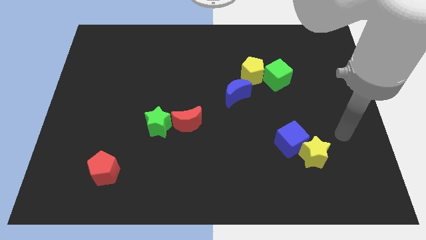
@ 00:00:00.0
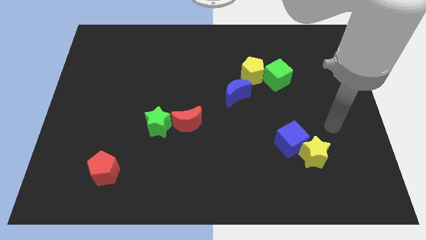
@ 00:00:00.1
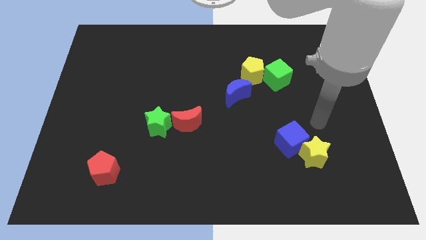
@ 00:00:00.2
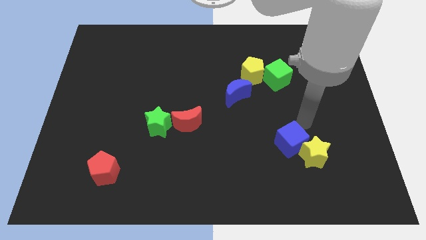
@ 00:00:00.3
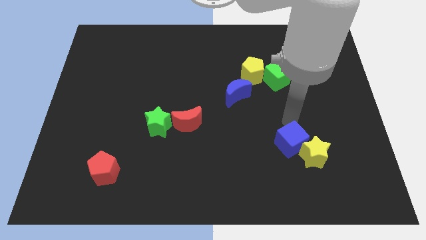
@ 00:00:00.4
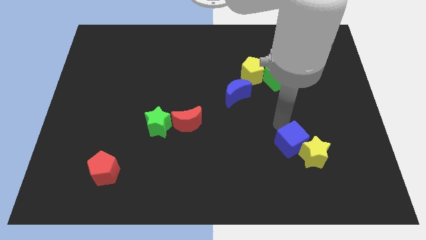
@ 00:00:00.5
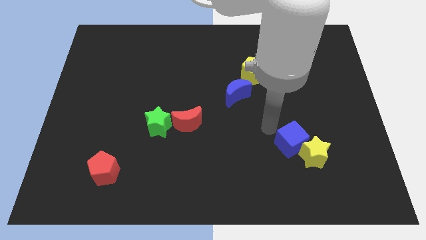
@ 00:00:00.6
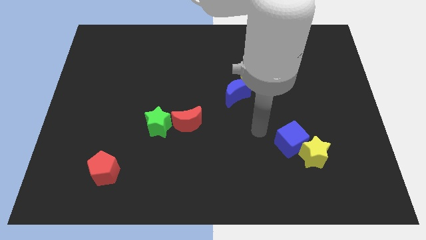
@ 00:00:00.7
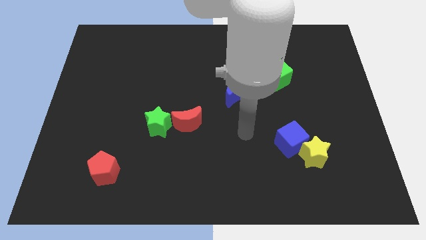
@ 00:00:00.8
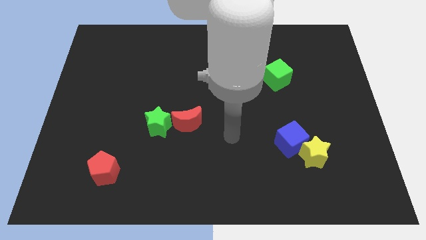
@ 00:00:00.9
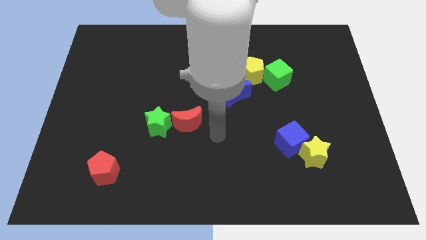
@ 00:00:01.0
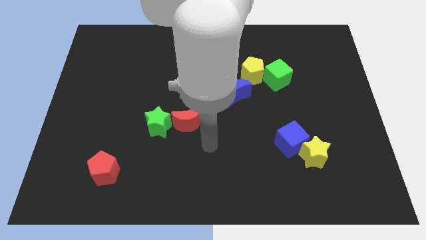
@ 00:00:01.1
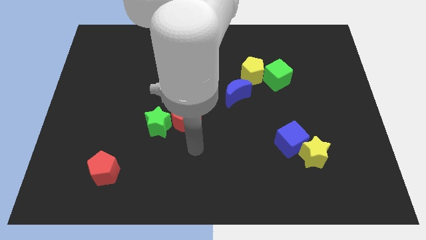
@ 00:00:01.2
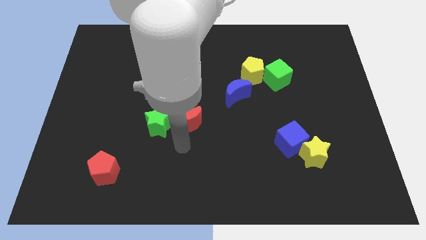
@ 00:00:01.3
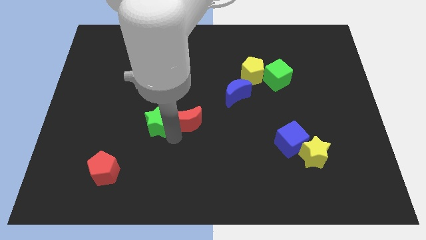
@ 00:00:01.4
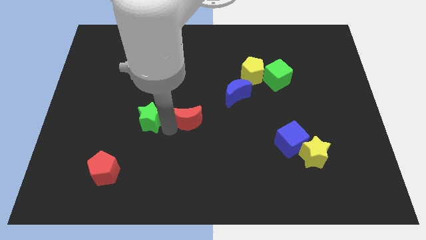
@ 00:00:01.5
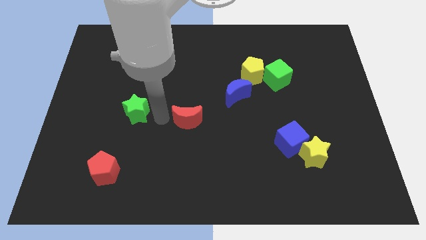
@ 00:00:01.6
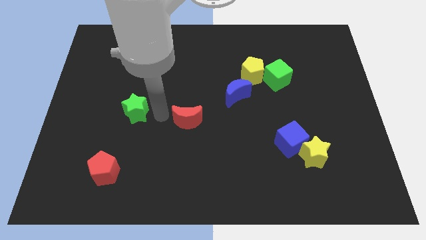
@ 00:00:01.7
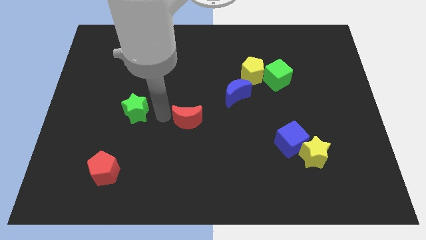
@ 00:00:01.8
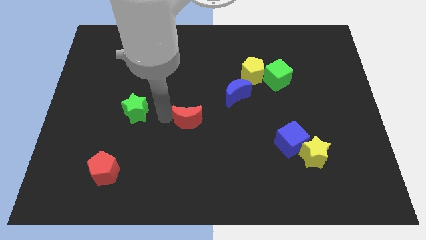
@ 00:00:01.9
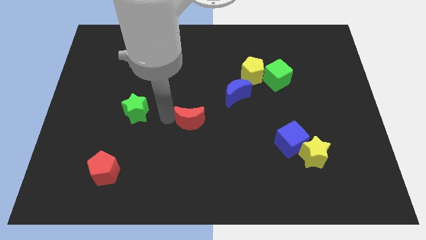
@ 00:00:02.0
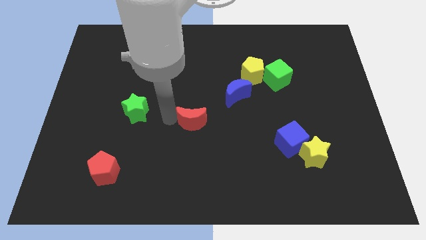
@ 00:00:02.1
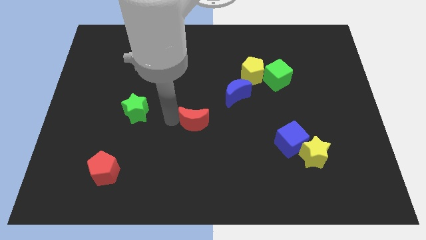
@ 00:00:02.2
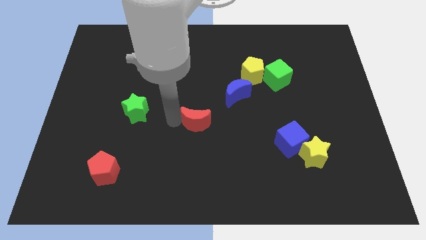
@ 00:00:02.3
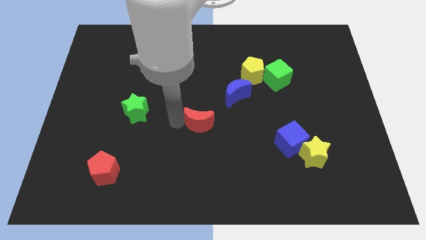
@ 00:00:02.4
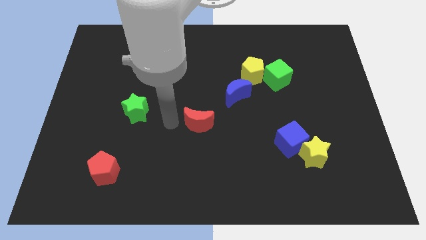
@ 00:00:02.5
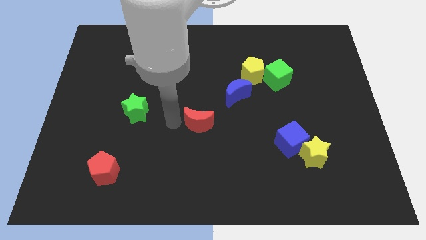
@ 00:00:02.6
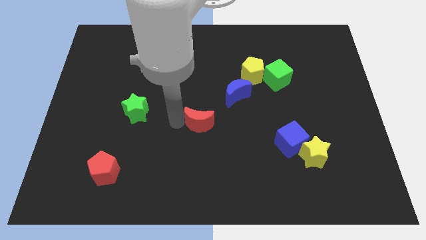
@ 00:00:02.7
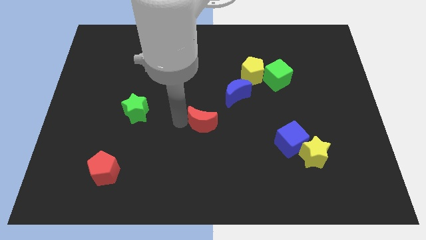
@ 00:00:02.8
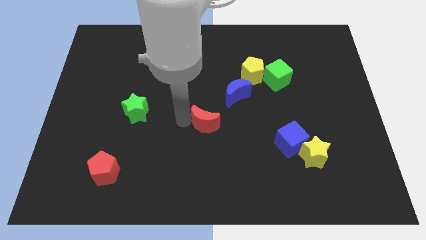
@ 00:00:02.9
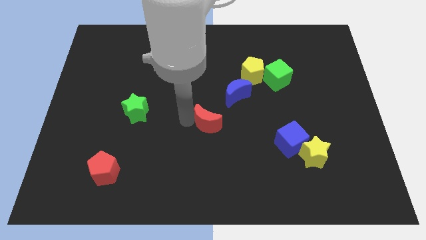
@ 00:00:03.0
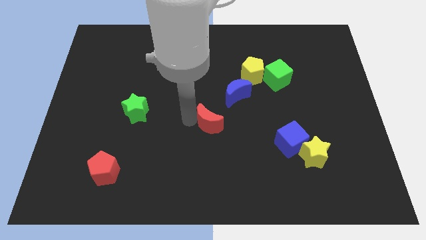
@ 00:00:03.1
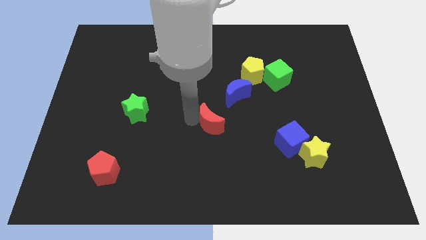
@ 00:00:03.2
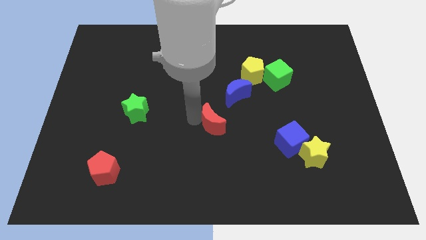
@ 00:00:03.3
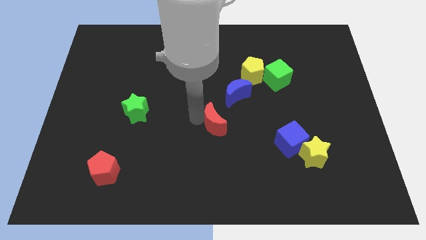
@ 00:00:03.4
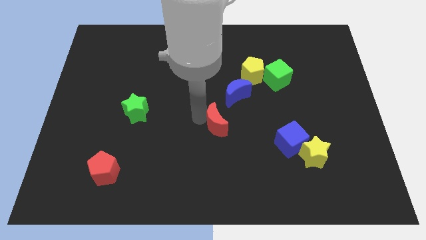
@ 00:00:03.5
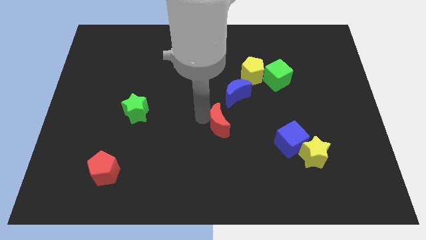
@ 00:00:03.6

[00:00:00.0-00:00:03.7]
slightly push the red moon right

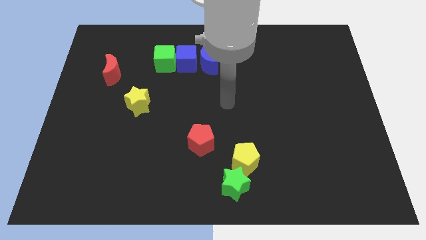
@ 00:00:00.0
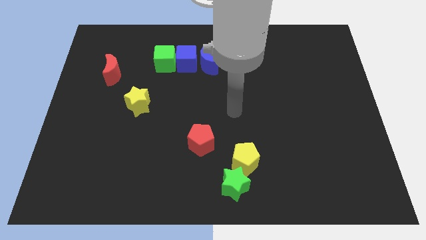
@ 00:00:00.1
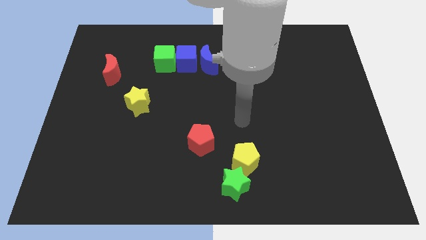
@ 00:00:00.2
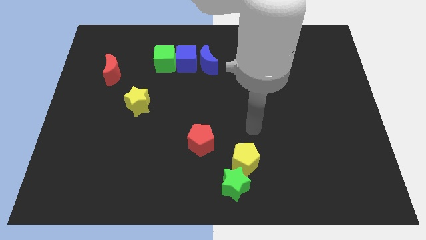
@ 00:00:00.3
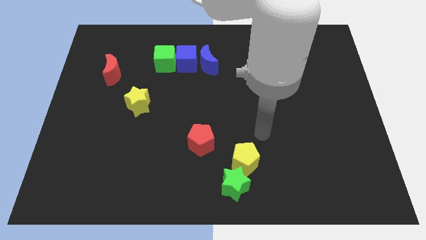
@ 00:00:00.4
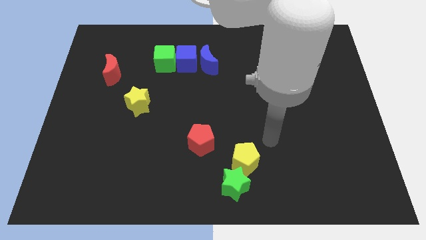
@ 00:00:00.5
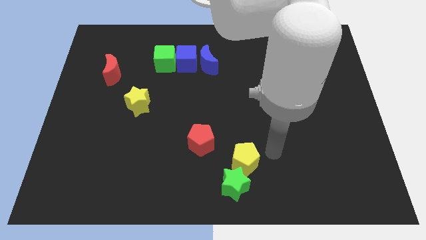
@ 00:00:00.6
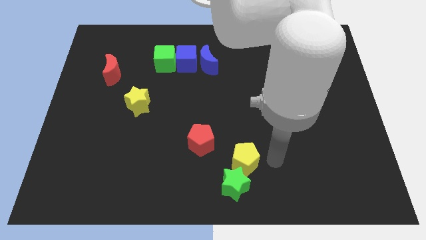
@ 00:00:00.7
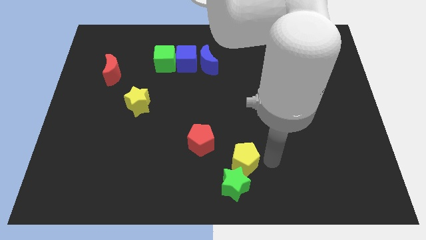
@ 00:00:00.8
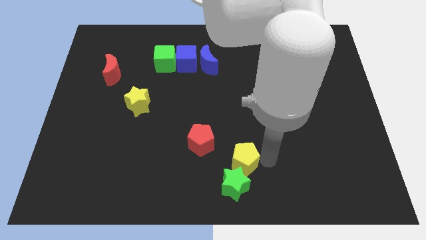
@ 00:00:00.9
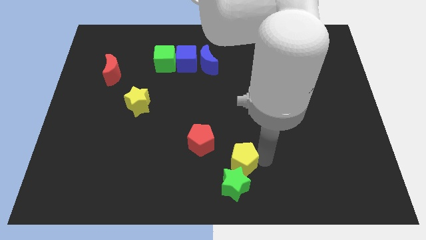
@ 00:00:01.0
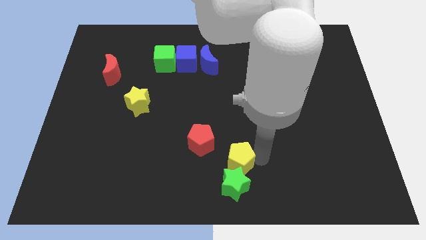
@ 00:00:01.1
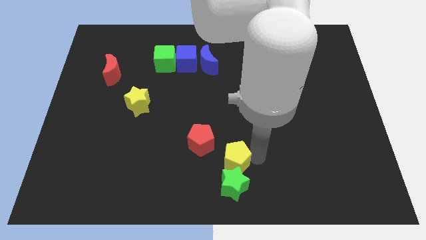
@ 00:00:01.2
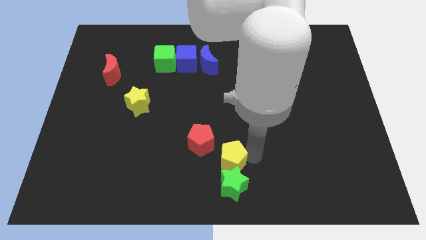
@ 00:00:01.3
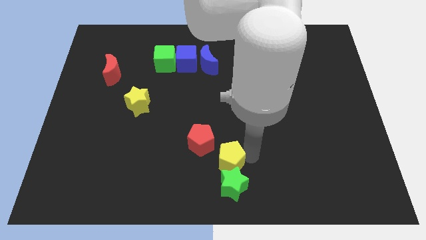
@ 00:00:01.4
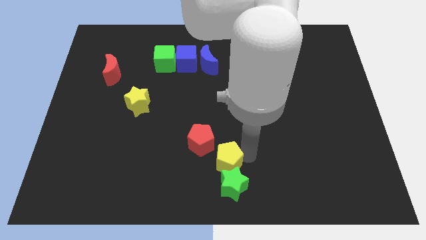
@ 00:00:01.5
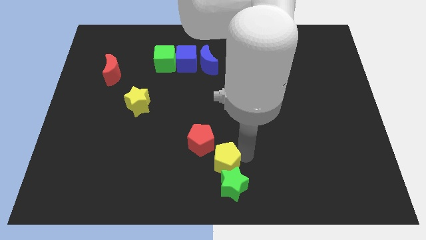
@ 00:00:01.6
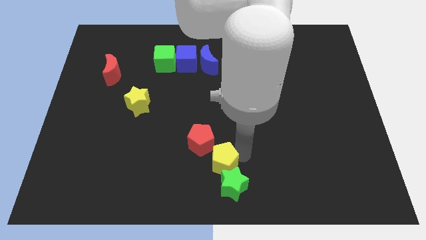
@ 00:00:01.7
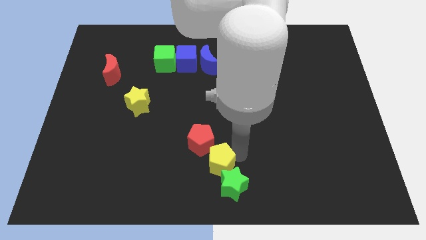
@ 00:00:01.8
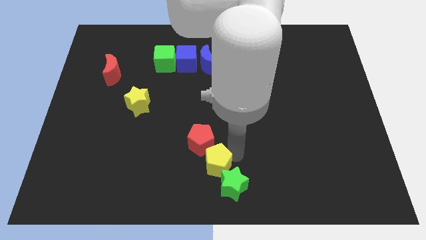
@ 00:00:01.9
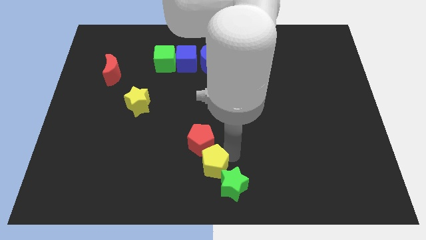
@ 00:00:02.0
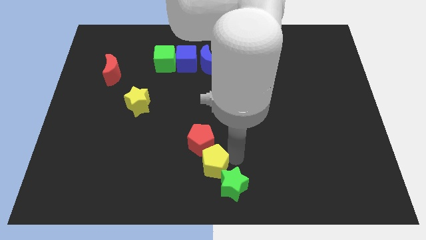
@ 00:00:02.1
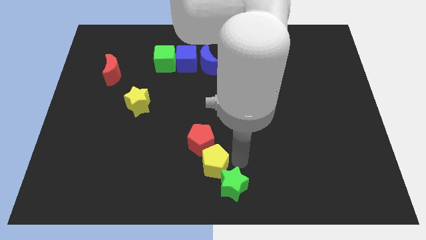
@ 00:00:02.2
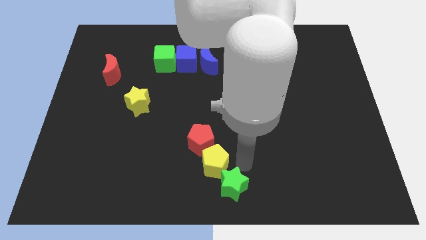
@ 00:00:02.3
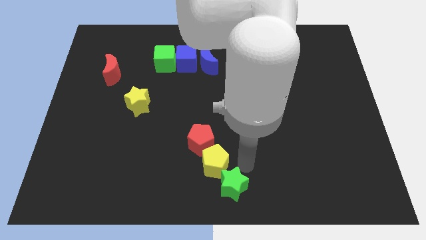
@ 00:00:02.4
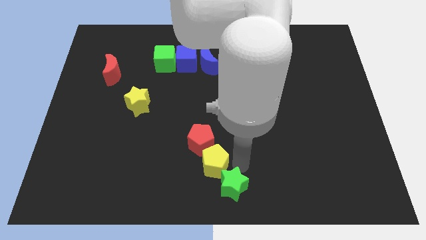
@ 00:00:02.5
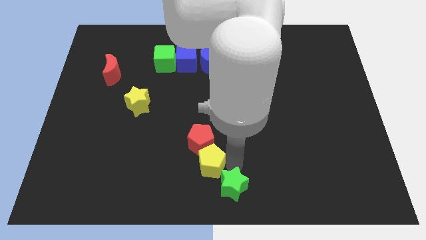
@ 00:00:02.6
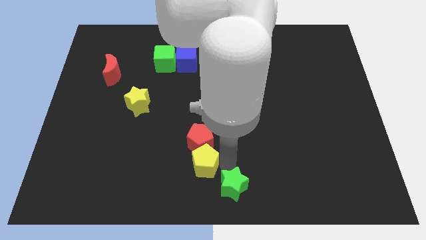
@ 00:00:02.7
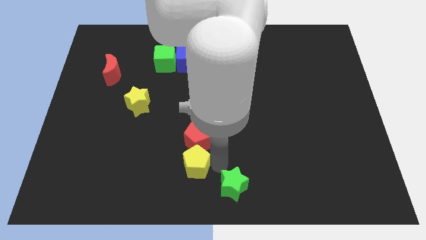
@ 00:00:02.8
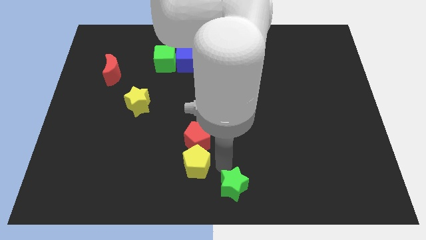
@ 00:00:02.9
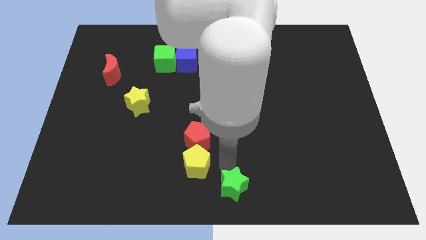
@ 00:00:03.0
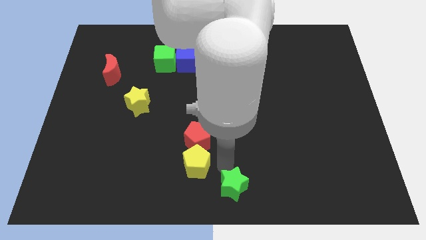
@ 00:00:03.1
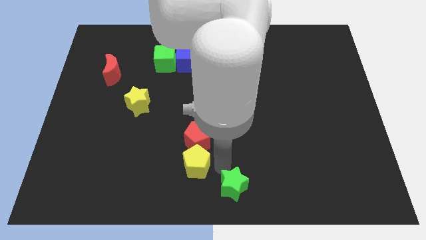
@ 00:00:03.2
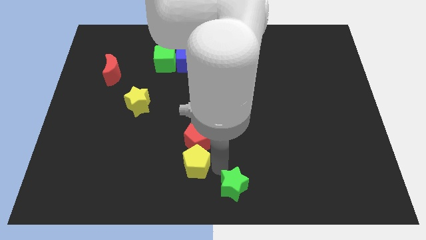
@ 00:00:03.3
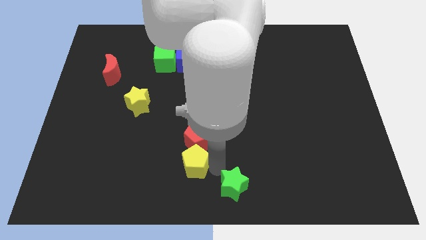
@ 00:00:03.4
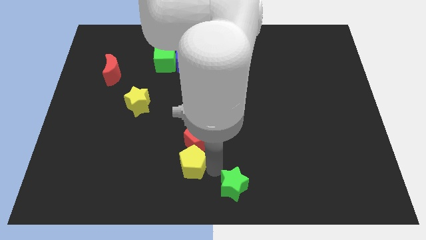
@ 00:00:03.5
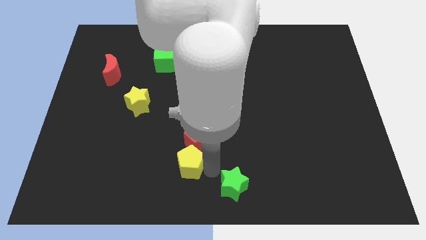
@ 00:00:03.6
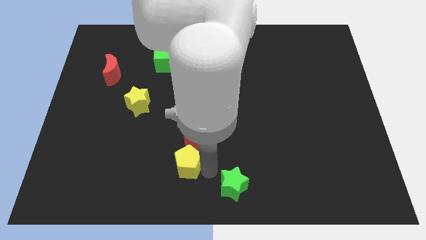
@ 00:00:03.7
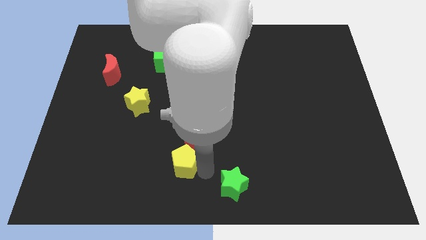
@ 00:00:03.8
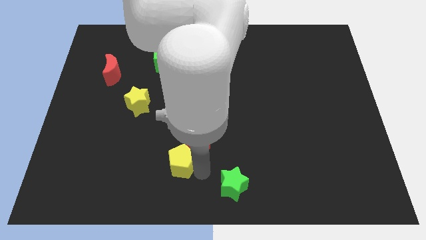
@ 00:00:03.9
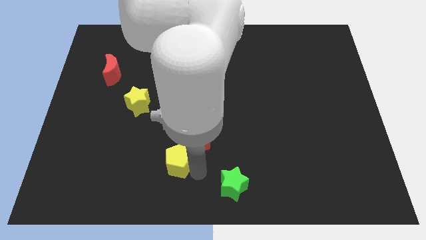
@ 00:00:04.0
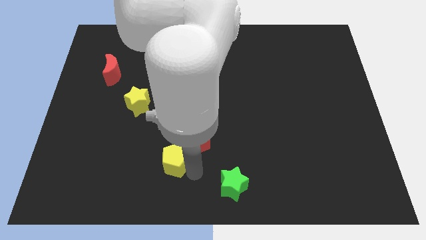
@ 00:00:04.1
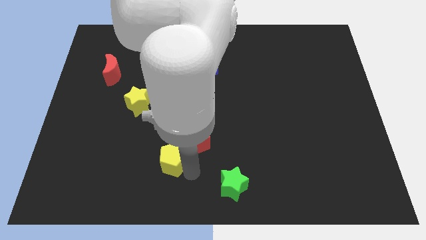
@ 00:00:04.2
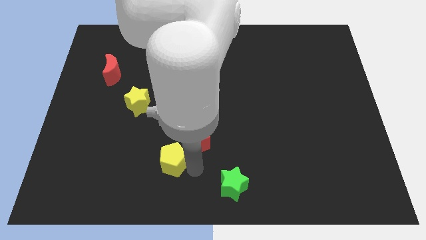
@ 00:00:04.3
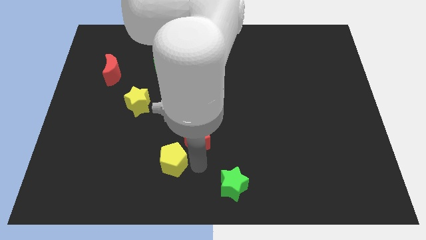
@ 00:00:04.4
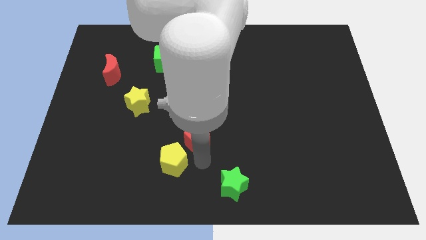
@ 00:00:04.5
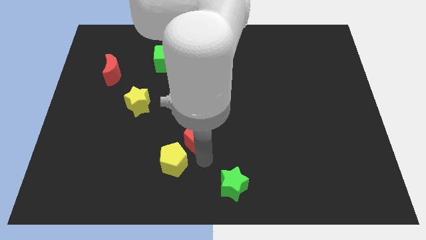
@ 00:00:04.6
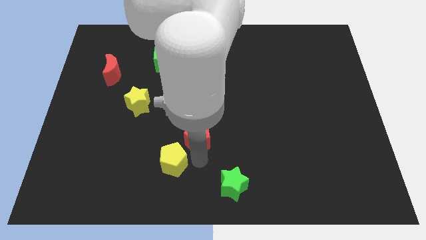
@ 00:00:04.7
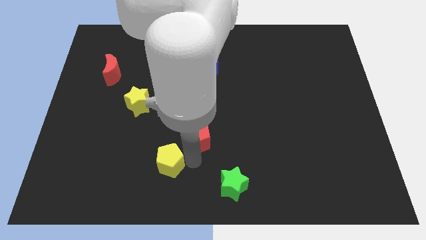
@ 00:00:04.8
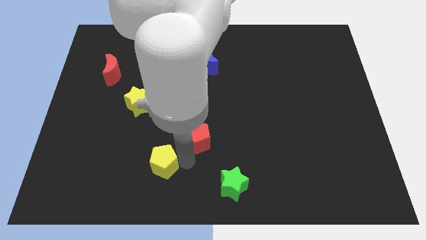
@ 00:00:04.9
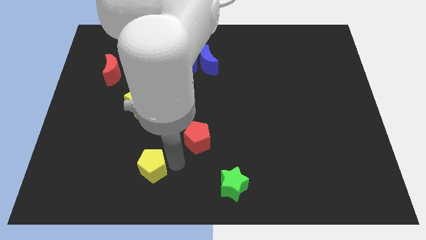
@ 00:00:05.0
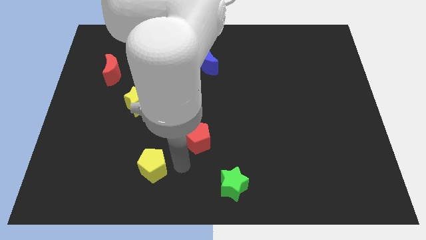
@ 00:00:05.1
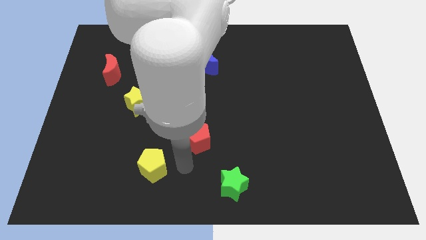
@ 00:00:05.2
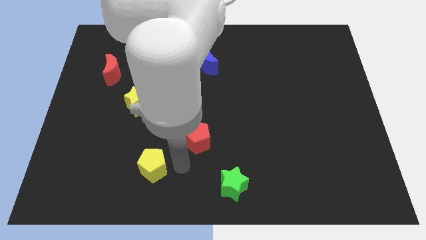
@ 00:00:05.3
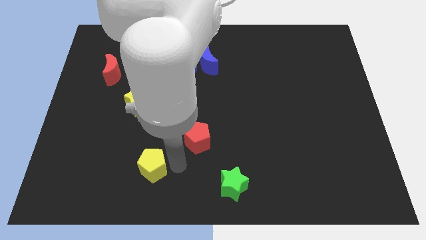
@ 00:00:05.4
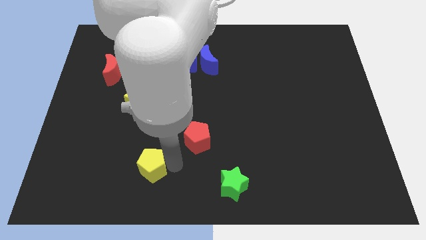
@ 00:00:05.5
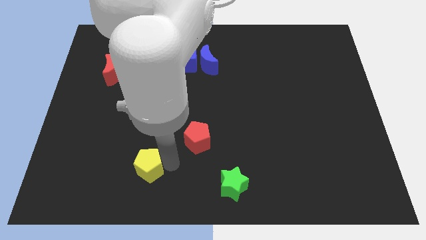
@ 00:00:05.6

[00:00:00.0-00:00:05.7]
slide the yellow pentagon to the left
